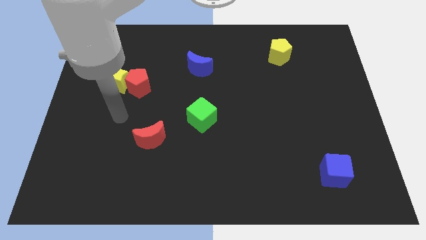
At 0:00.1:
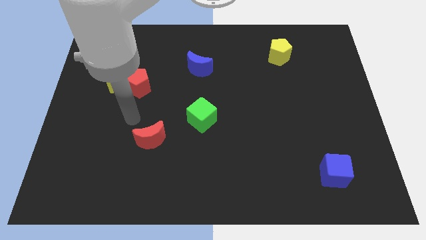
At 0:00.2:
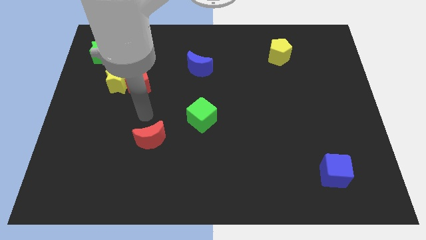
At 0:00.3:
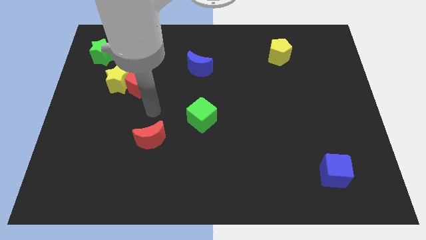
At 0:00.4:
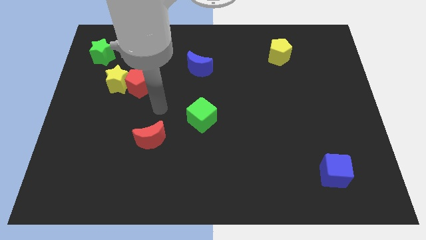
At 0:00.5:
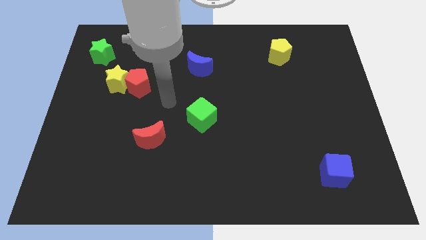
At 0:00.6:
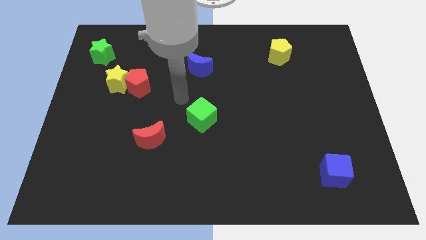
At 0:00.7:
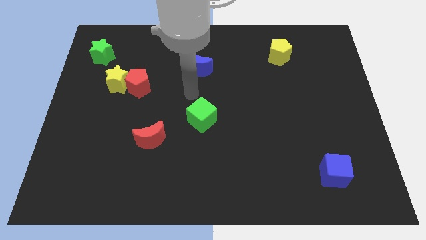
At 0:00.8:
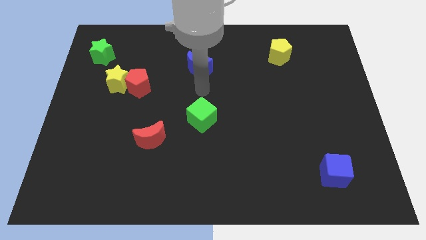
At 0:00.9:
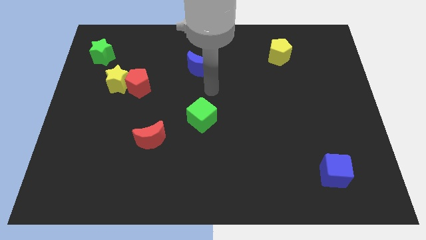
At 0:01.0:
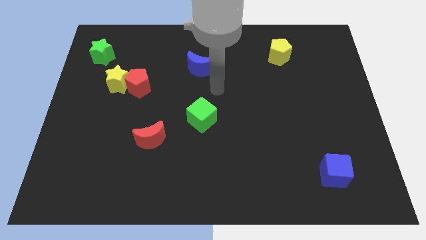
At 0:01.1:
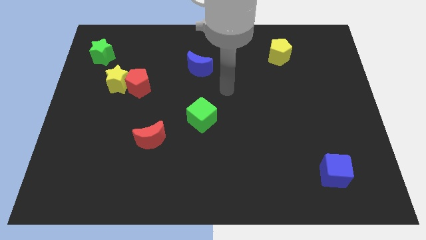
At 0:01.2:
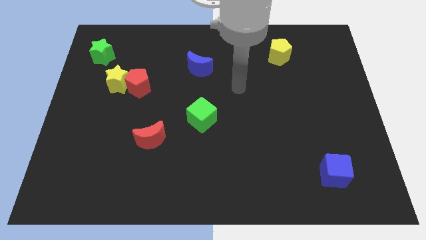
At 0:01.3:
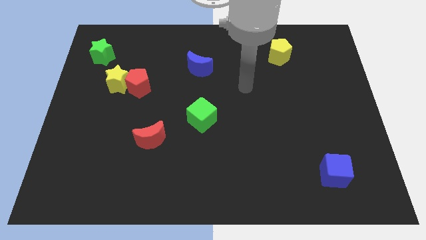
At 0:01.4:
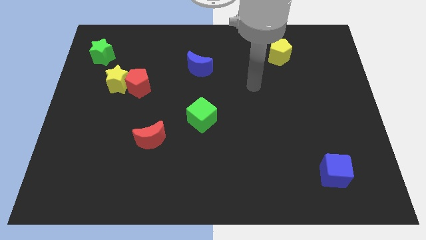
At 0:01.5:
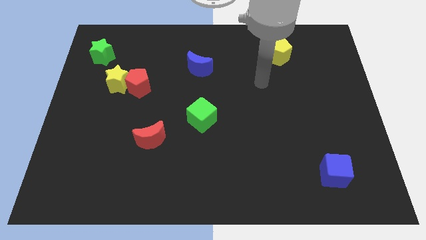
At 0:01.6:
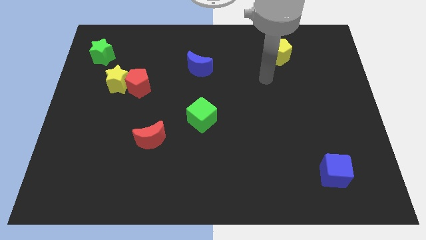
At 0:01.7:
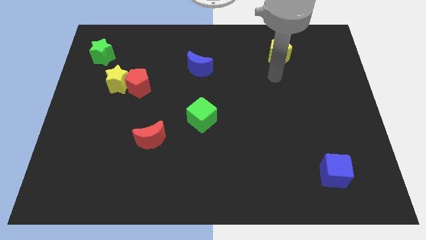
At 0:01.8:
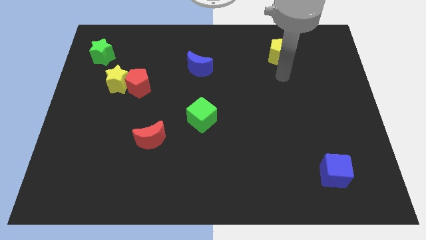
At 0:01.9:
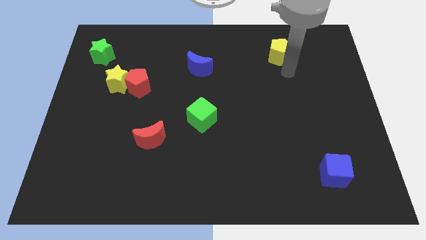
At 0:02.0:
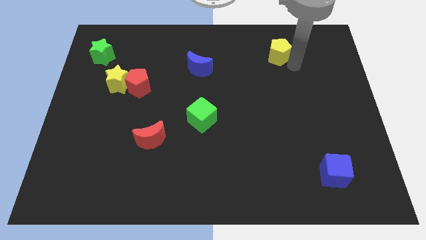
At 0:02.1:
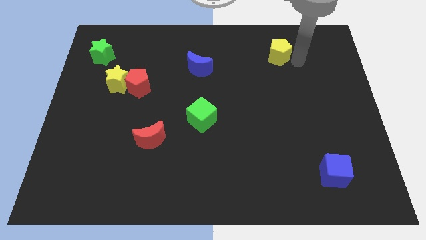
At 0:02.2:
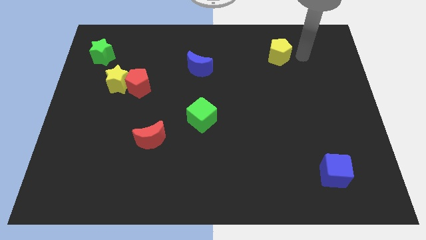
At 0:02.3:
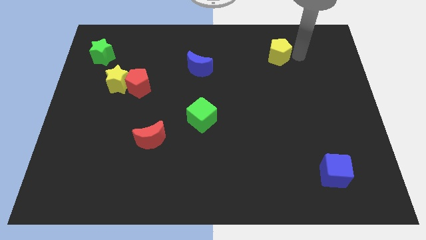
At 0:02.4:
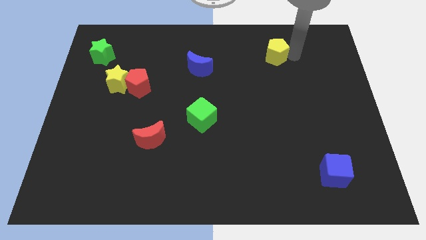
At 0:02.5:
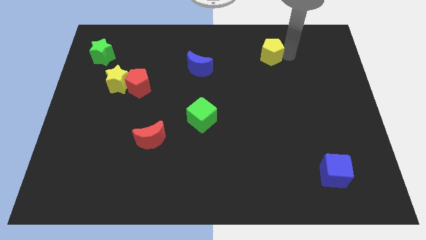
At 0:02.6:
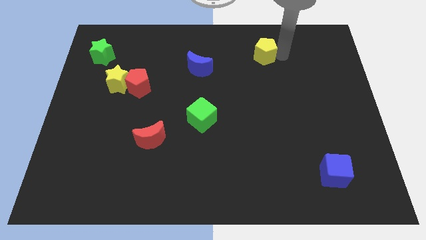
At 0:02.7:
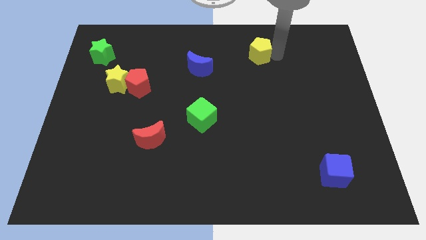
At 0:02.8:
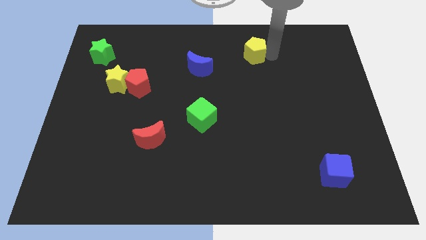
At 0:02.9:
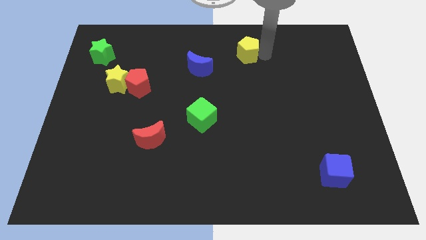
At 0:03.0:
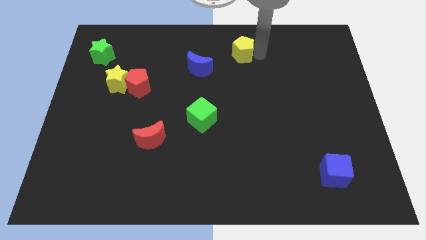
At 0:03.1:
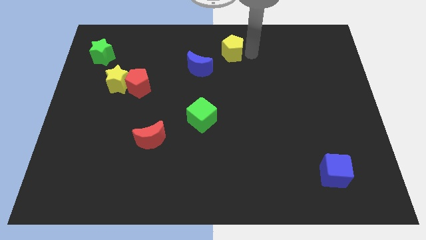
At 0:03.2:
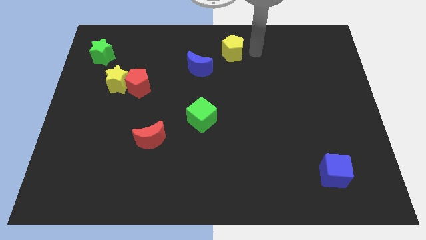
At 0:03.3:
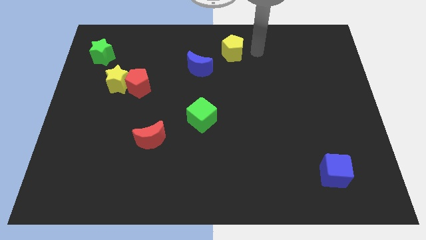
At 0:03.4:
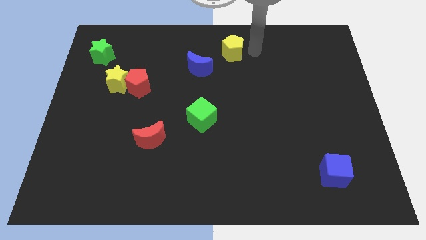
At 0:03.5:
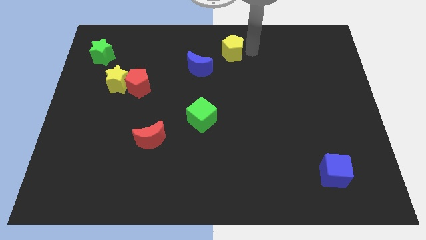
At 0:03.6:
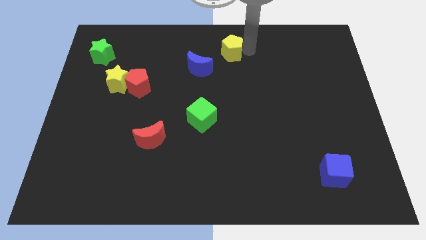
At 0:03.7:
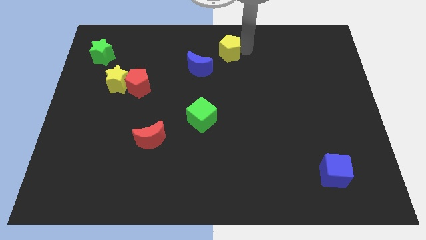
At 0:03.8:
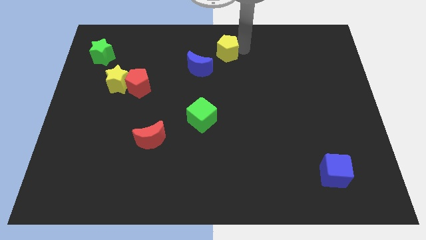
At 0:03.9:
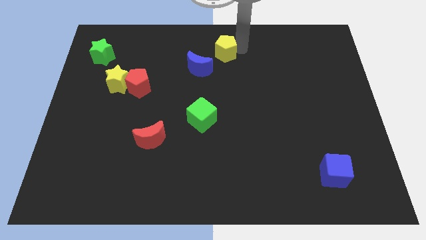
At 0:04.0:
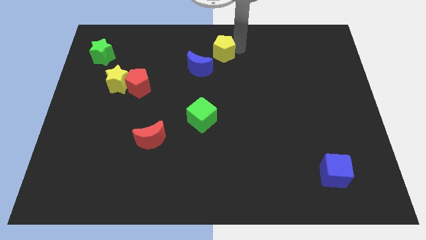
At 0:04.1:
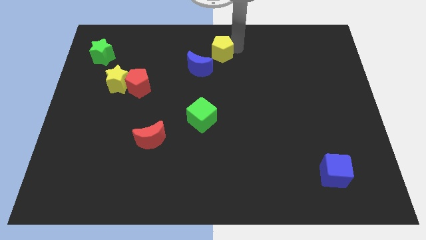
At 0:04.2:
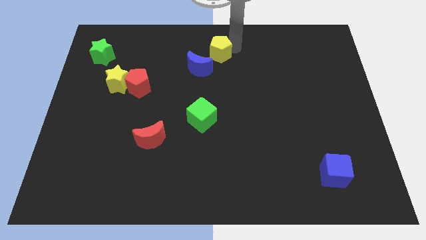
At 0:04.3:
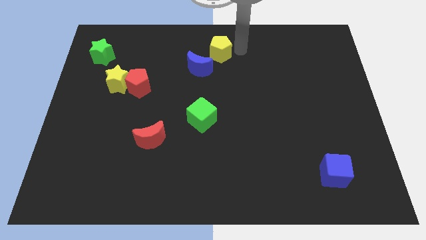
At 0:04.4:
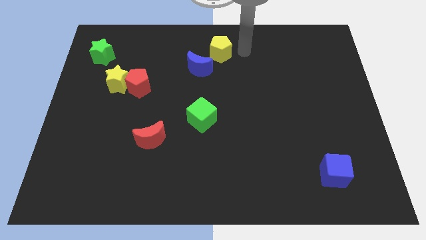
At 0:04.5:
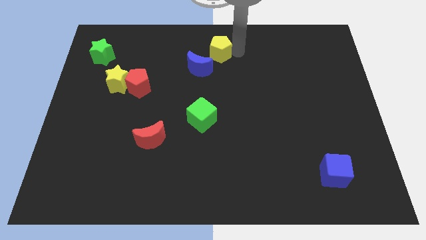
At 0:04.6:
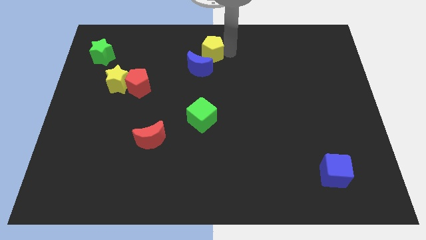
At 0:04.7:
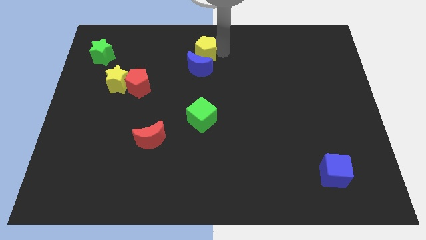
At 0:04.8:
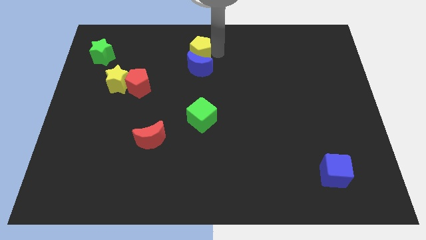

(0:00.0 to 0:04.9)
push the yellow pentagon left

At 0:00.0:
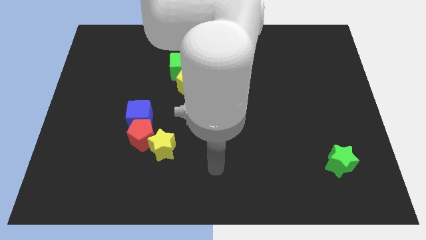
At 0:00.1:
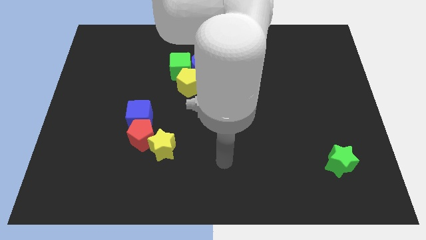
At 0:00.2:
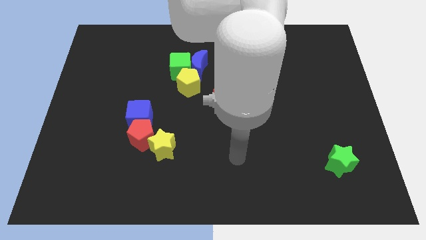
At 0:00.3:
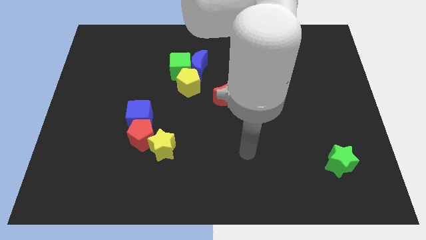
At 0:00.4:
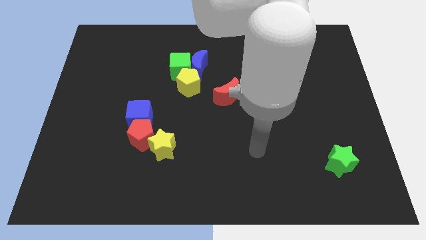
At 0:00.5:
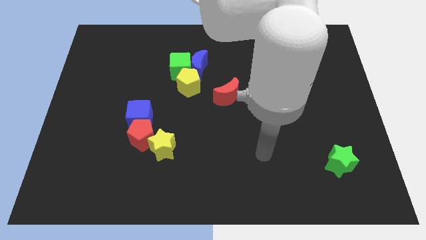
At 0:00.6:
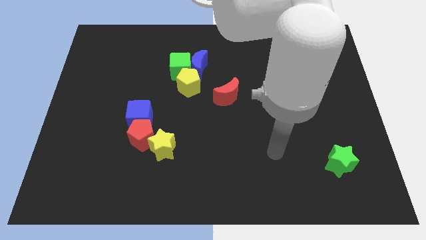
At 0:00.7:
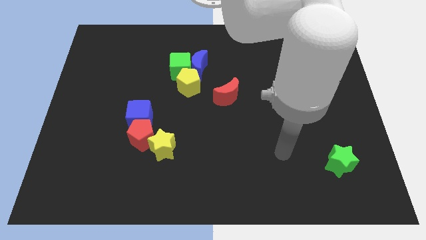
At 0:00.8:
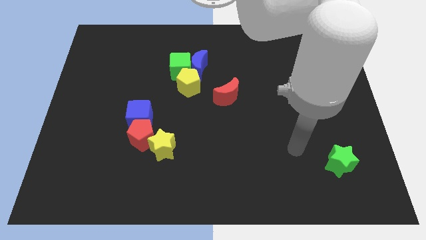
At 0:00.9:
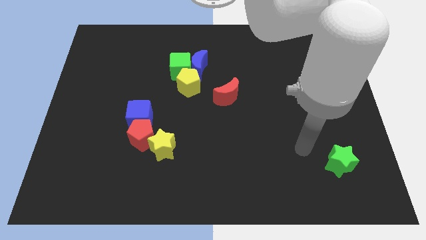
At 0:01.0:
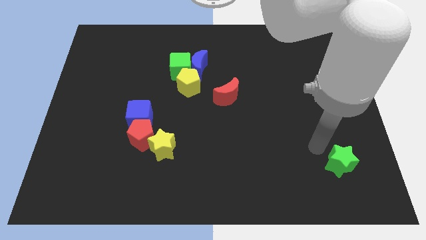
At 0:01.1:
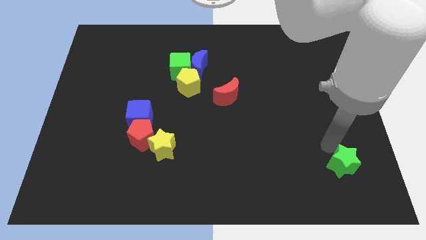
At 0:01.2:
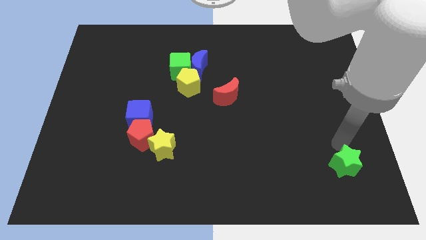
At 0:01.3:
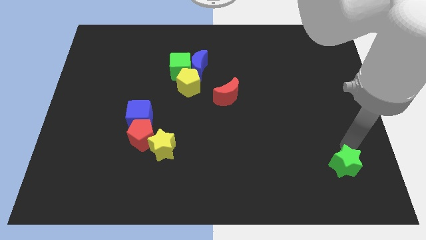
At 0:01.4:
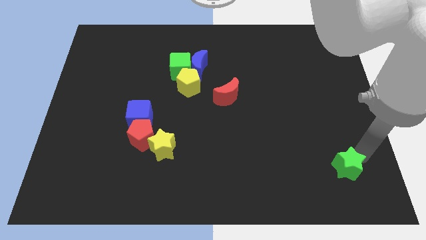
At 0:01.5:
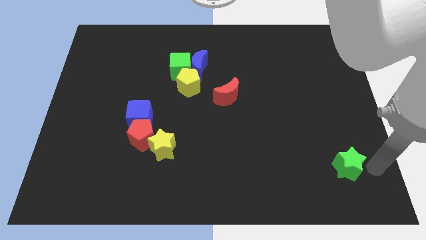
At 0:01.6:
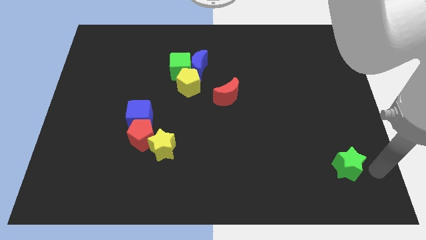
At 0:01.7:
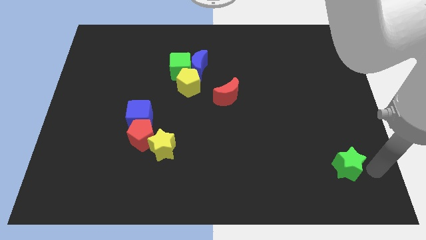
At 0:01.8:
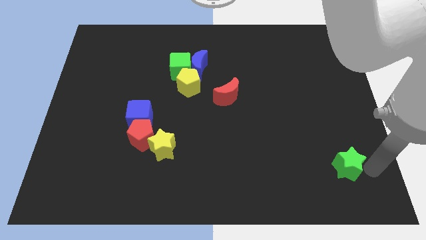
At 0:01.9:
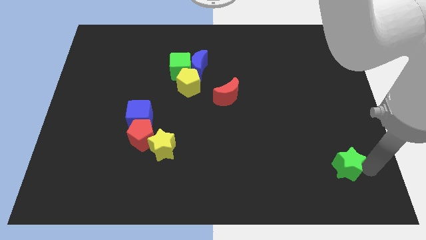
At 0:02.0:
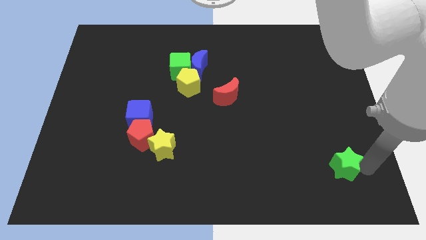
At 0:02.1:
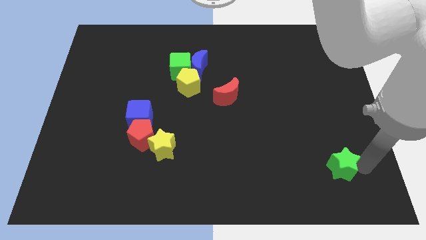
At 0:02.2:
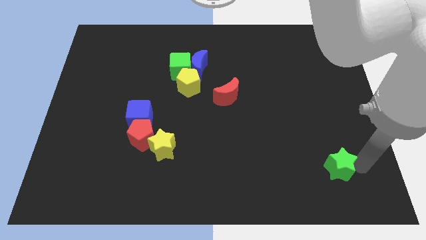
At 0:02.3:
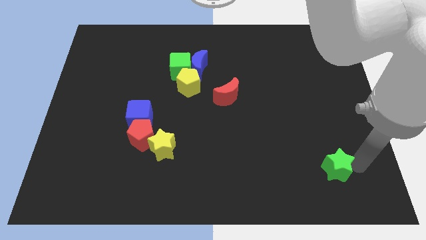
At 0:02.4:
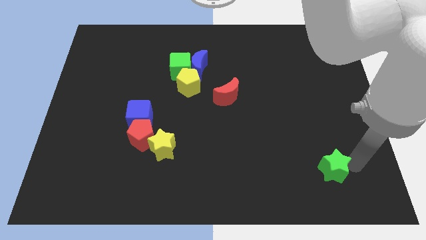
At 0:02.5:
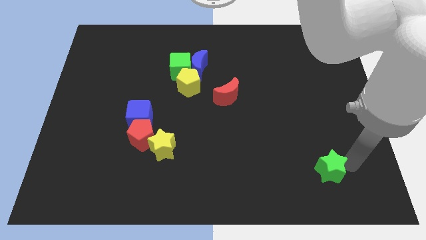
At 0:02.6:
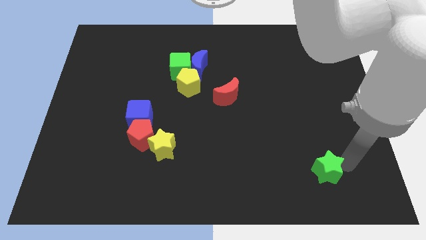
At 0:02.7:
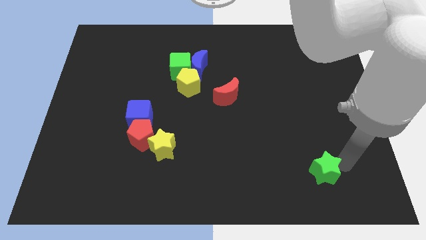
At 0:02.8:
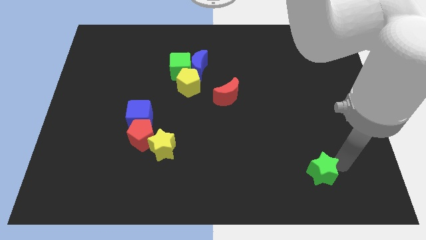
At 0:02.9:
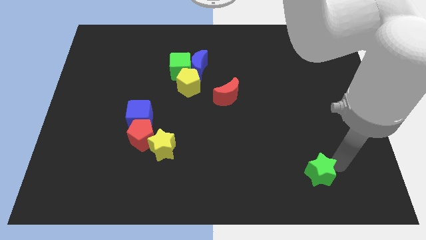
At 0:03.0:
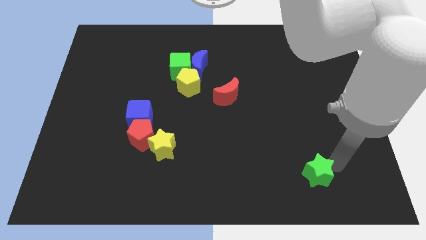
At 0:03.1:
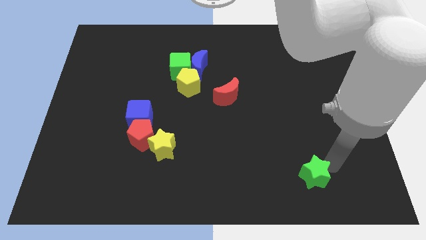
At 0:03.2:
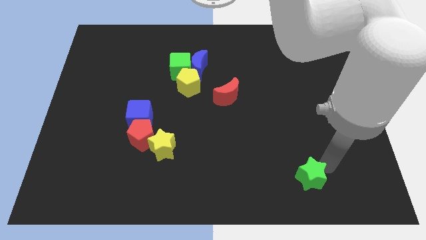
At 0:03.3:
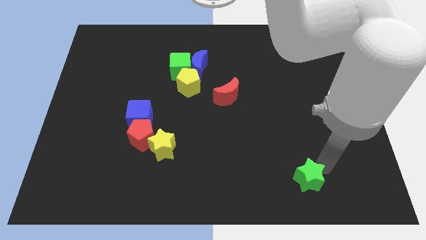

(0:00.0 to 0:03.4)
slightly push the green star to the left

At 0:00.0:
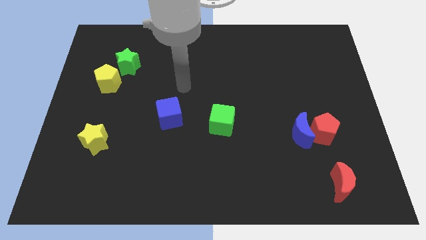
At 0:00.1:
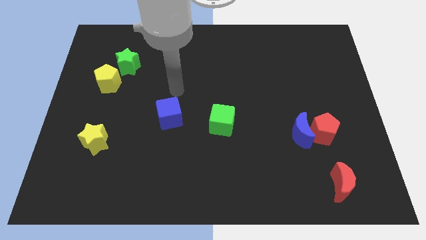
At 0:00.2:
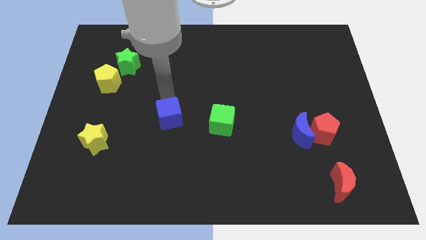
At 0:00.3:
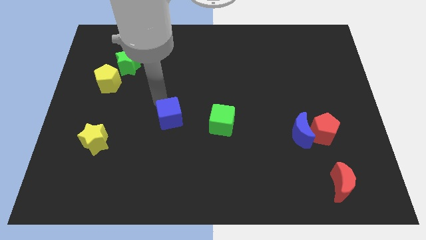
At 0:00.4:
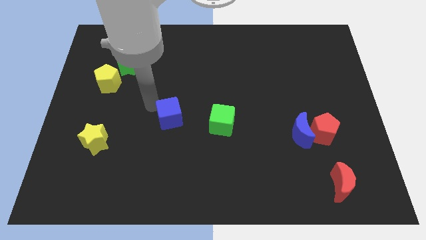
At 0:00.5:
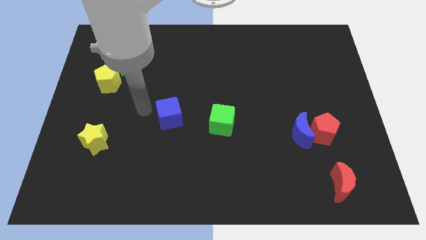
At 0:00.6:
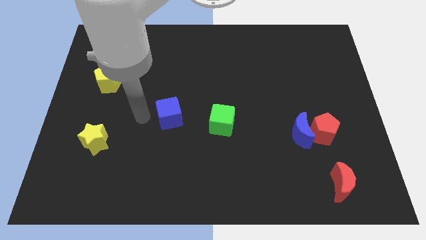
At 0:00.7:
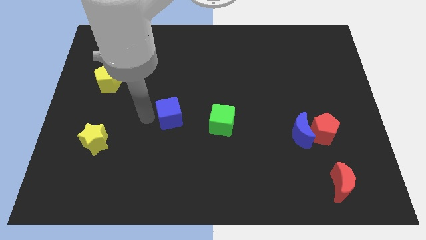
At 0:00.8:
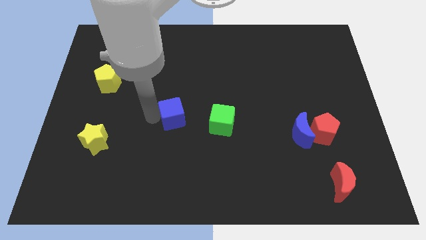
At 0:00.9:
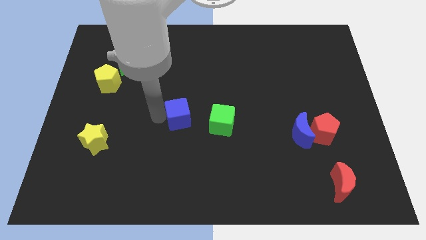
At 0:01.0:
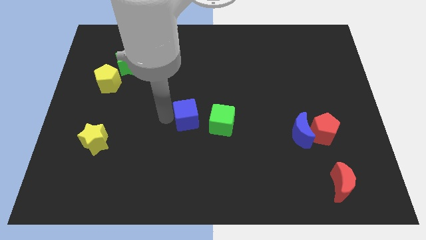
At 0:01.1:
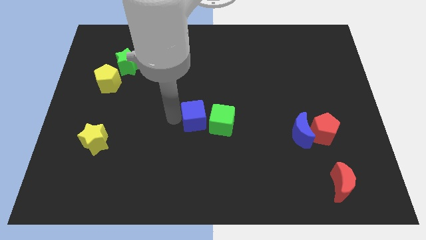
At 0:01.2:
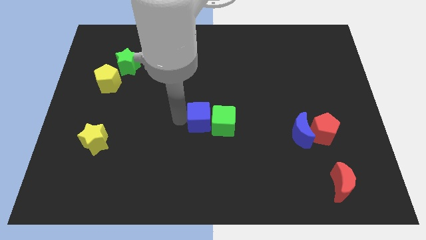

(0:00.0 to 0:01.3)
push the blue cube to the right somewhat
